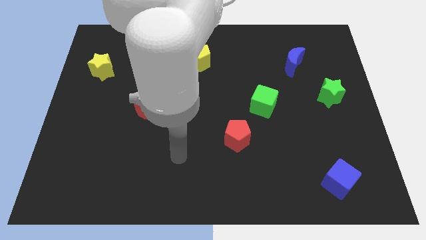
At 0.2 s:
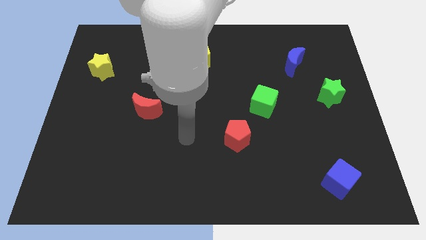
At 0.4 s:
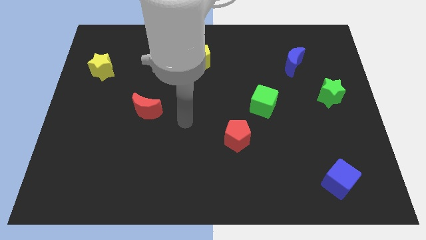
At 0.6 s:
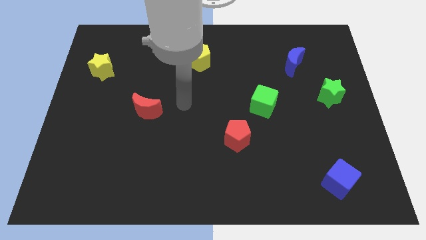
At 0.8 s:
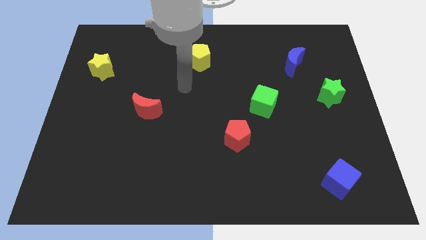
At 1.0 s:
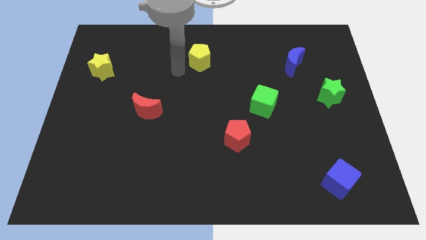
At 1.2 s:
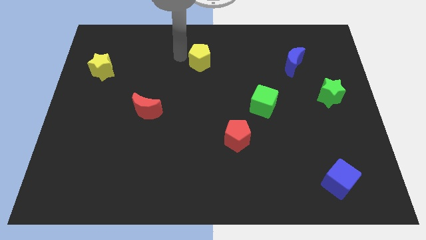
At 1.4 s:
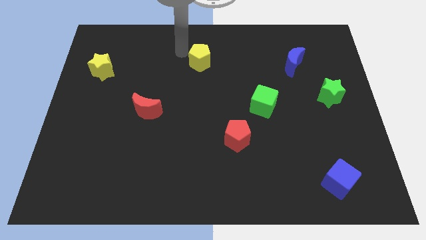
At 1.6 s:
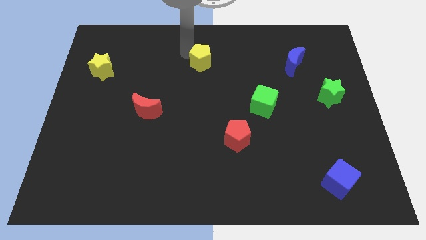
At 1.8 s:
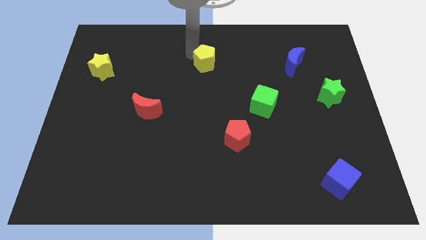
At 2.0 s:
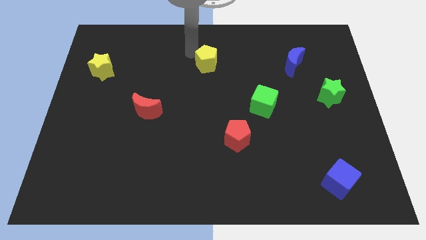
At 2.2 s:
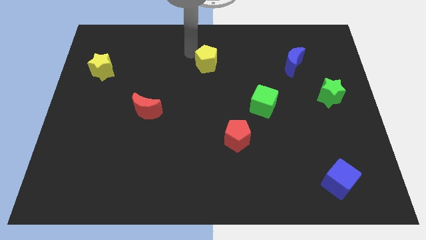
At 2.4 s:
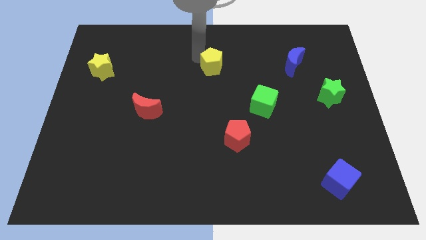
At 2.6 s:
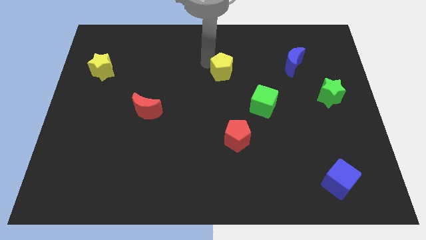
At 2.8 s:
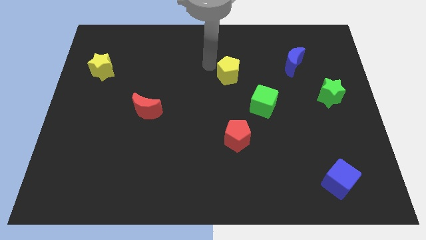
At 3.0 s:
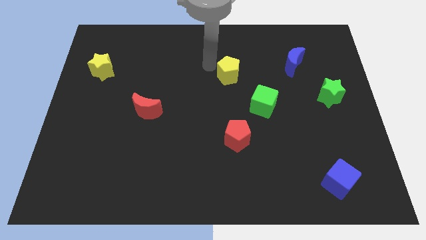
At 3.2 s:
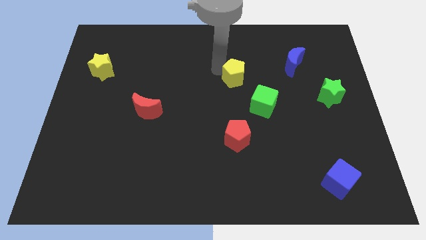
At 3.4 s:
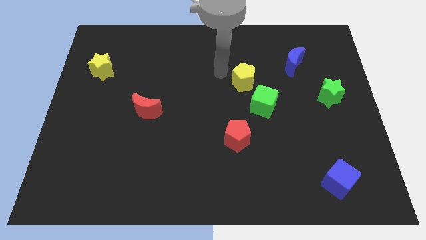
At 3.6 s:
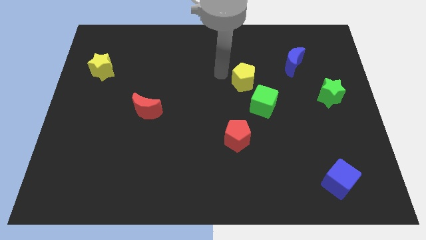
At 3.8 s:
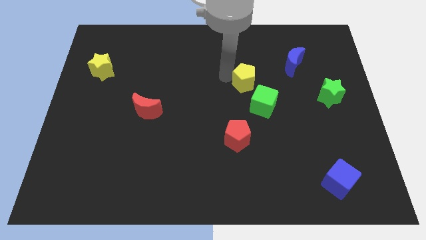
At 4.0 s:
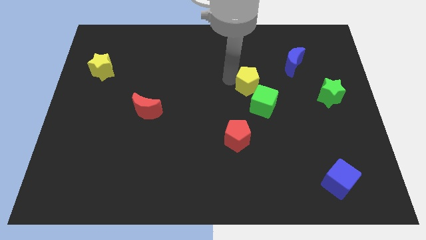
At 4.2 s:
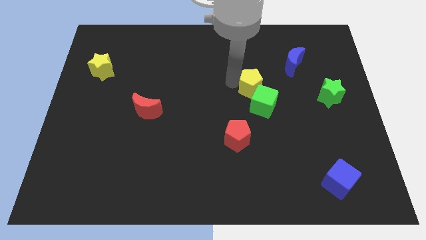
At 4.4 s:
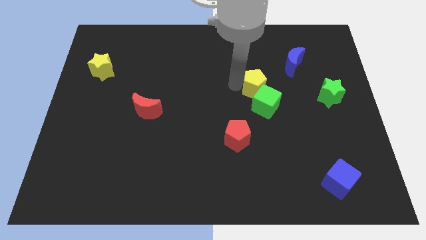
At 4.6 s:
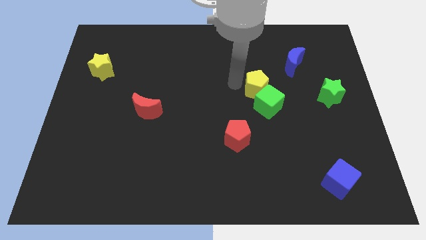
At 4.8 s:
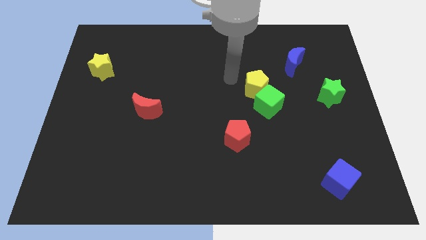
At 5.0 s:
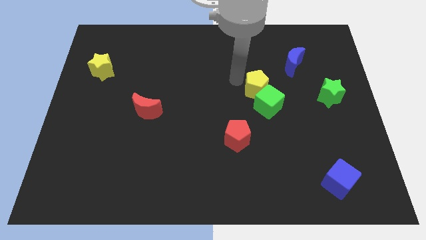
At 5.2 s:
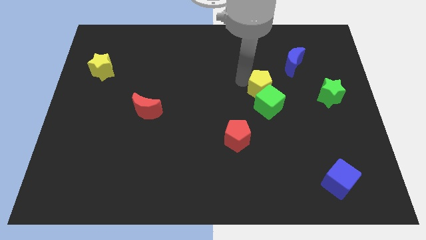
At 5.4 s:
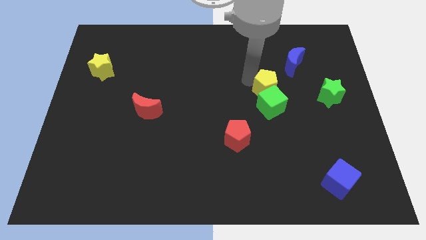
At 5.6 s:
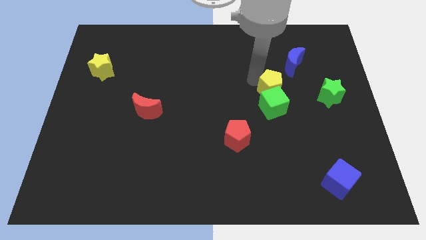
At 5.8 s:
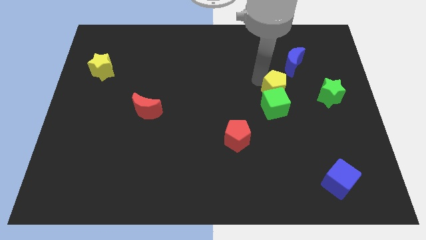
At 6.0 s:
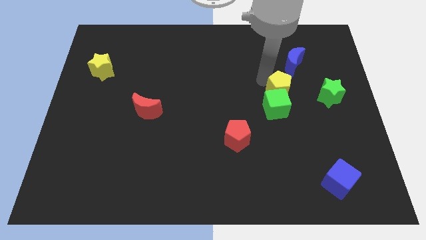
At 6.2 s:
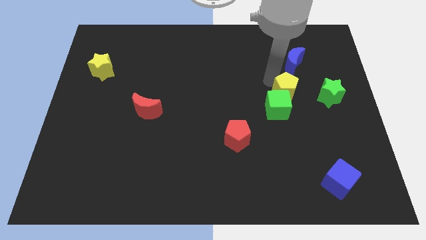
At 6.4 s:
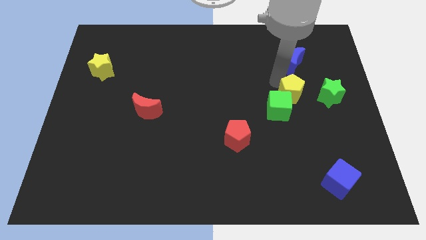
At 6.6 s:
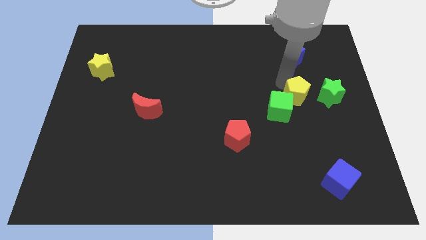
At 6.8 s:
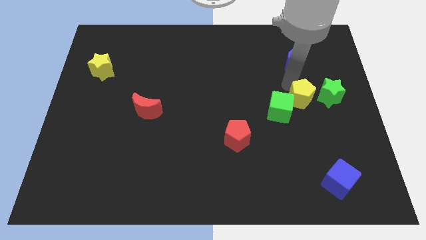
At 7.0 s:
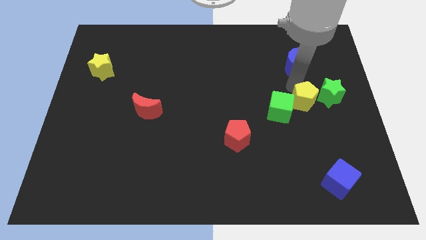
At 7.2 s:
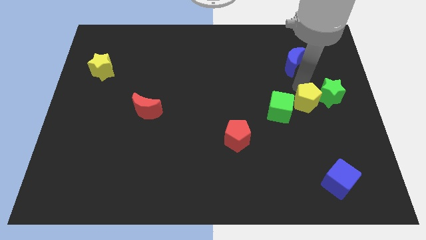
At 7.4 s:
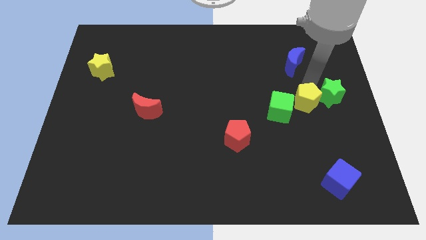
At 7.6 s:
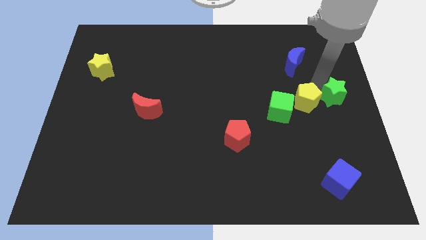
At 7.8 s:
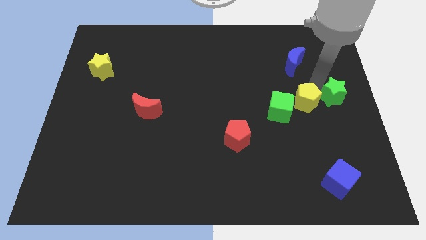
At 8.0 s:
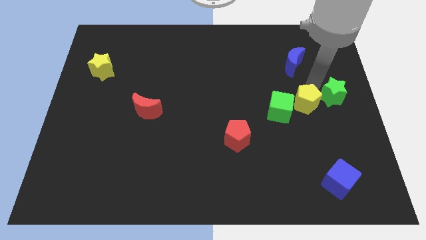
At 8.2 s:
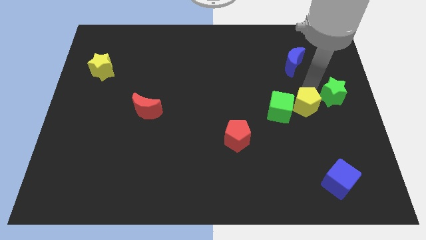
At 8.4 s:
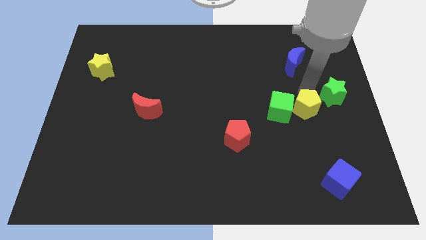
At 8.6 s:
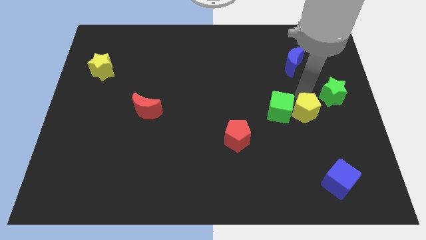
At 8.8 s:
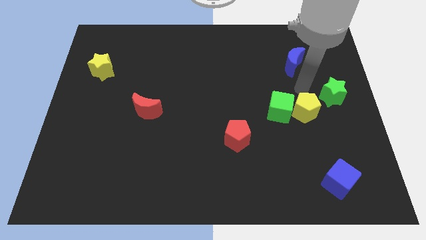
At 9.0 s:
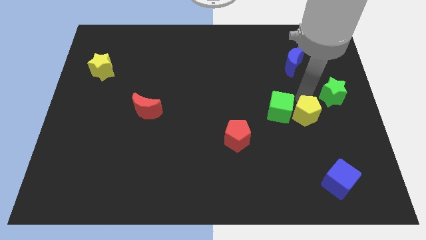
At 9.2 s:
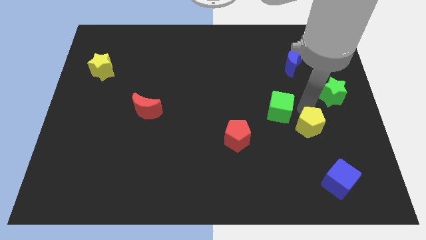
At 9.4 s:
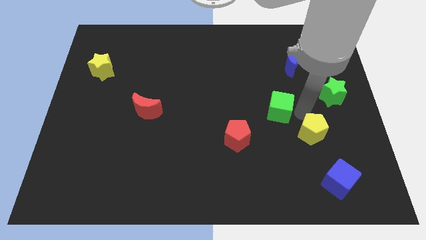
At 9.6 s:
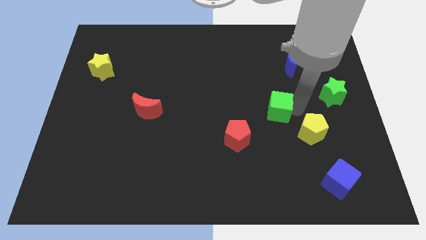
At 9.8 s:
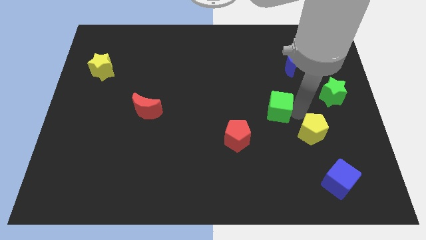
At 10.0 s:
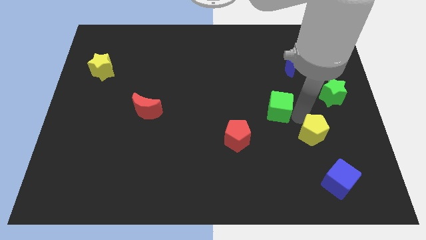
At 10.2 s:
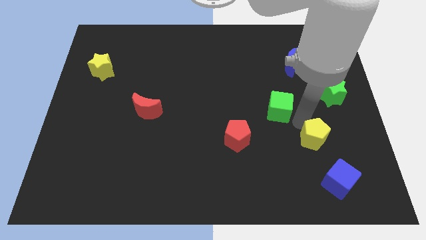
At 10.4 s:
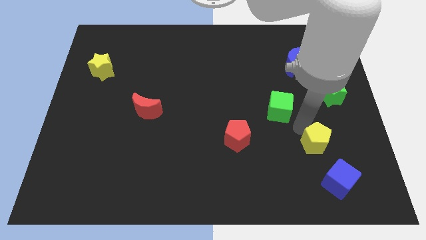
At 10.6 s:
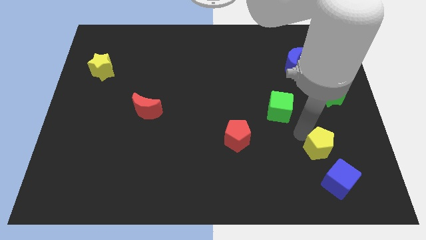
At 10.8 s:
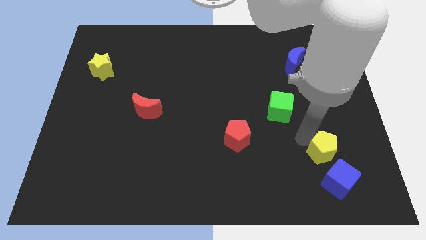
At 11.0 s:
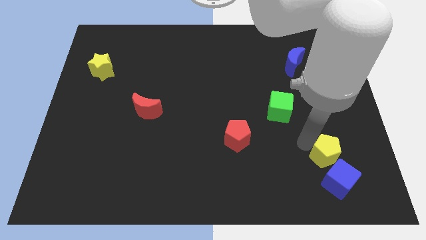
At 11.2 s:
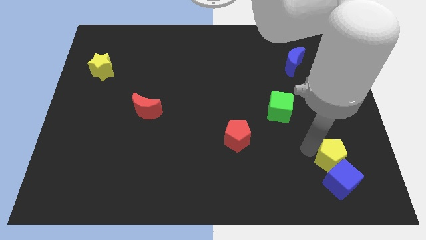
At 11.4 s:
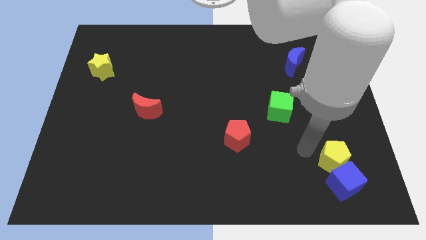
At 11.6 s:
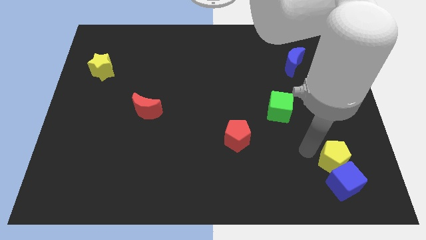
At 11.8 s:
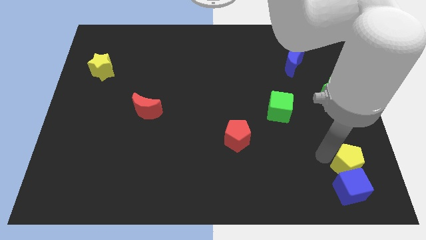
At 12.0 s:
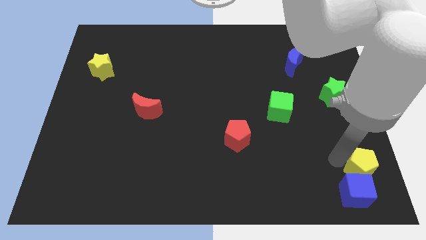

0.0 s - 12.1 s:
move the yellow pentagon to the bottom right corner

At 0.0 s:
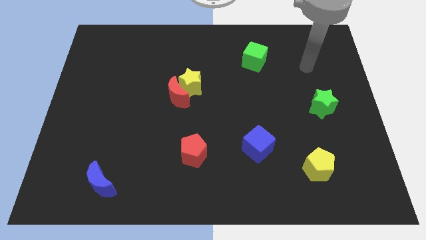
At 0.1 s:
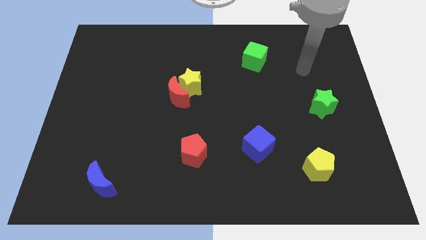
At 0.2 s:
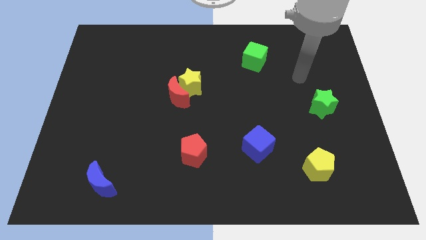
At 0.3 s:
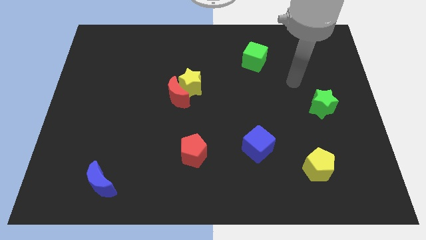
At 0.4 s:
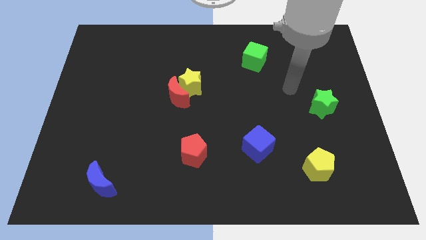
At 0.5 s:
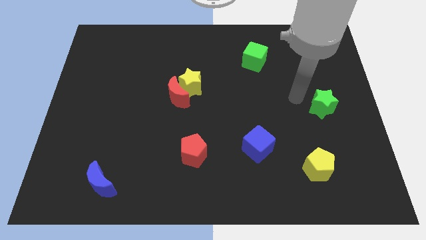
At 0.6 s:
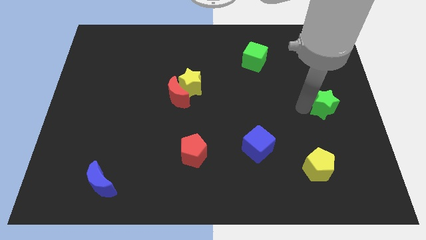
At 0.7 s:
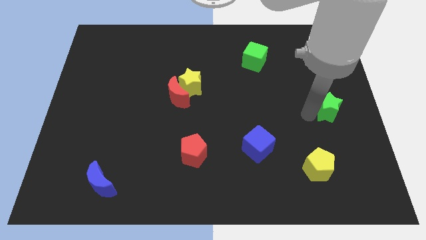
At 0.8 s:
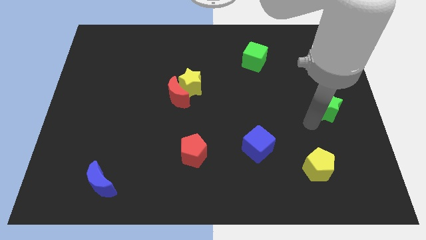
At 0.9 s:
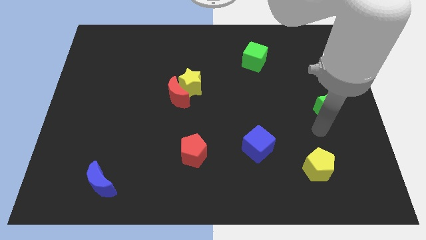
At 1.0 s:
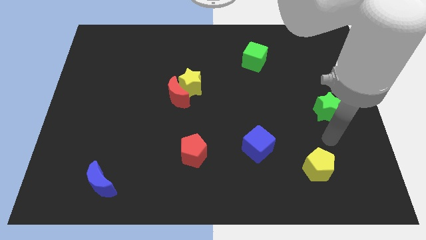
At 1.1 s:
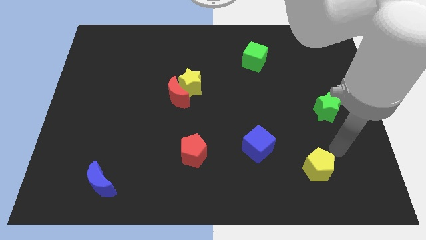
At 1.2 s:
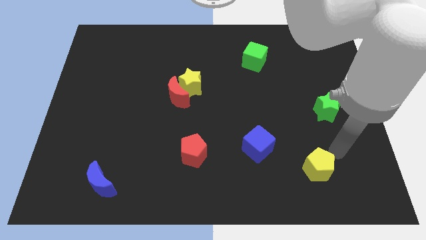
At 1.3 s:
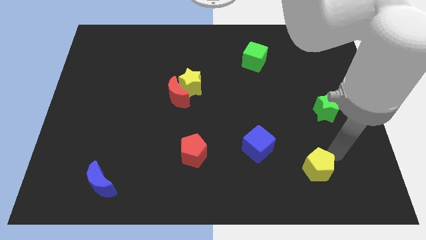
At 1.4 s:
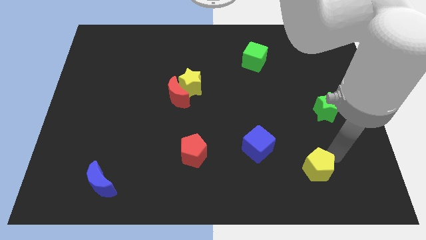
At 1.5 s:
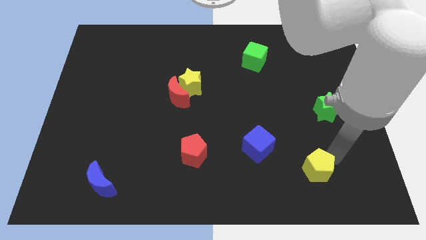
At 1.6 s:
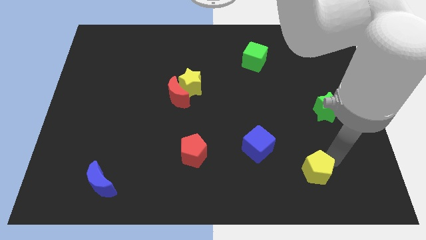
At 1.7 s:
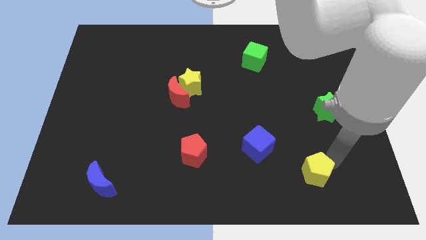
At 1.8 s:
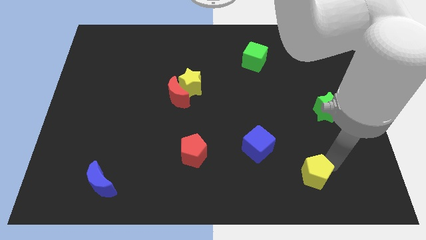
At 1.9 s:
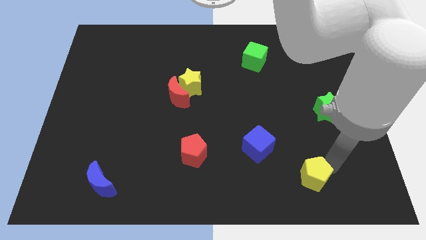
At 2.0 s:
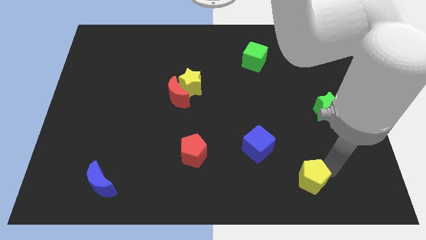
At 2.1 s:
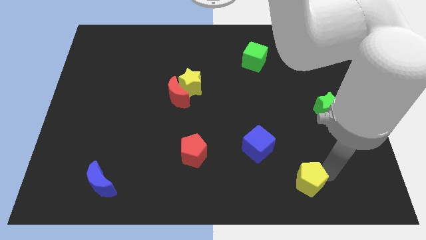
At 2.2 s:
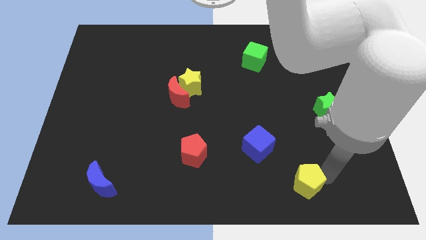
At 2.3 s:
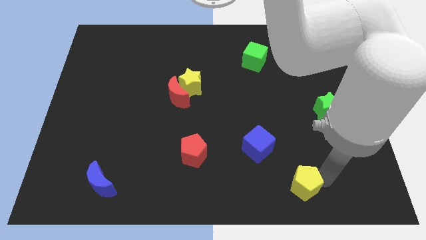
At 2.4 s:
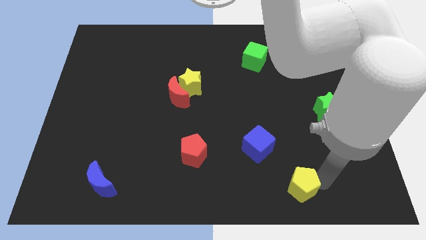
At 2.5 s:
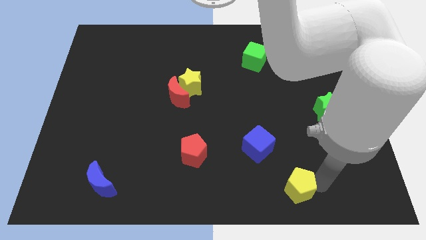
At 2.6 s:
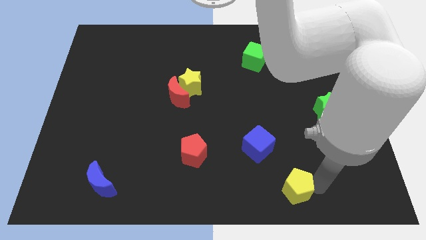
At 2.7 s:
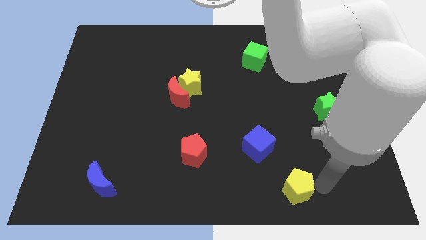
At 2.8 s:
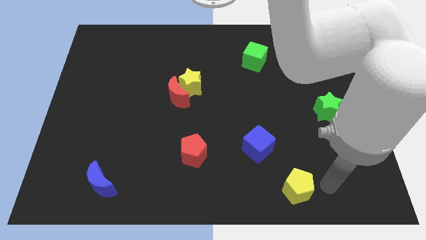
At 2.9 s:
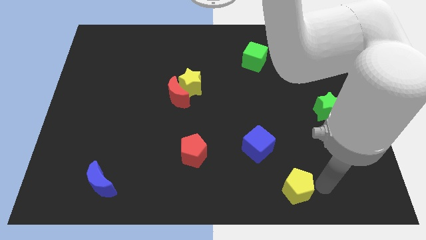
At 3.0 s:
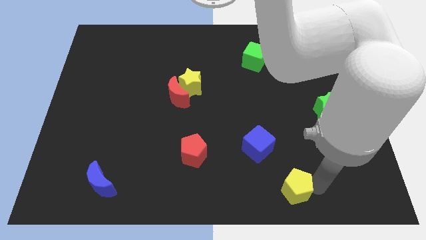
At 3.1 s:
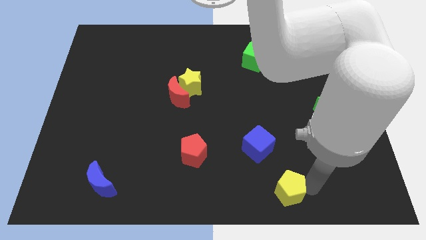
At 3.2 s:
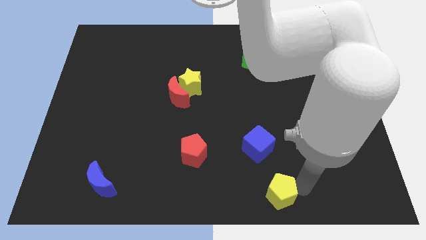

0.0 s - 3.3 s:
move the yellow pentagon to the bottom
